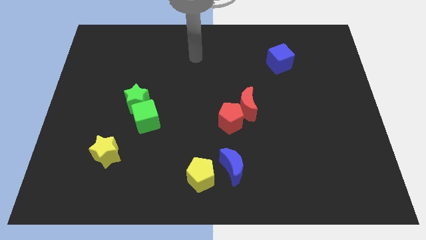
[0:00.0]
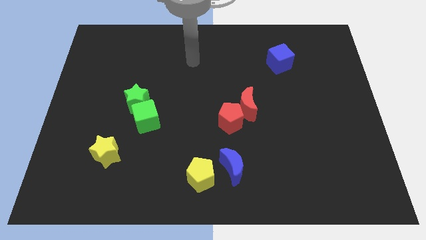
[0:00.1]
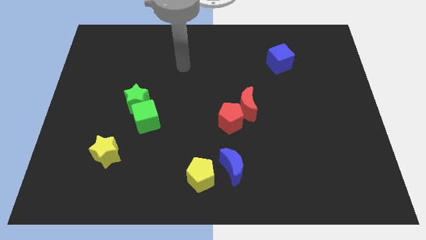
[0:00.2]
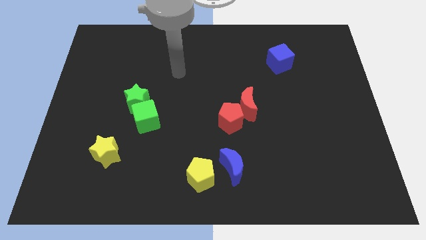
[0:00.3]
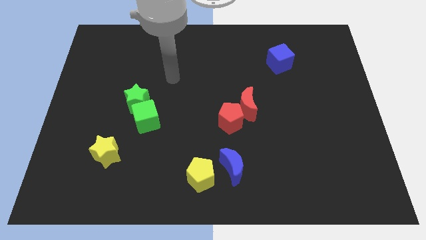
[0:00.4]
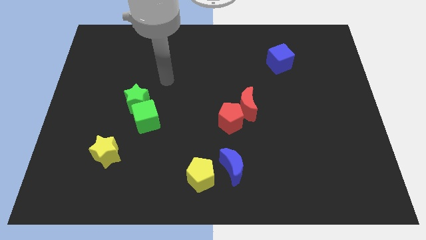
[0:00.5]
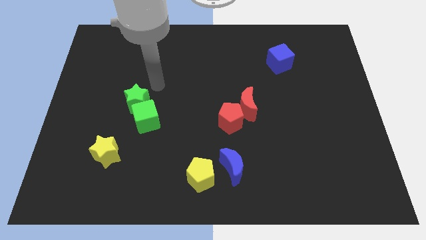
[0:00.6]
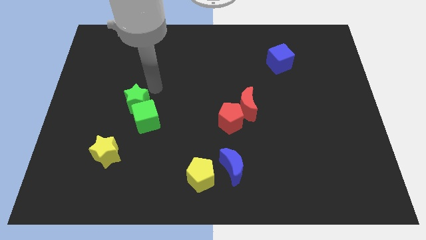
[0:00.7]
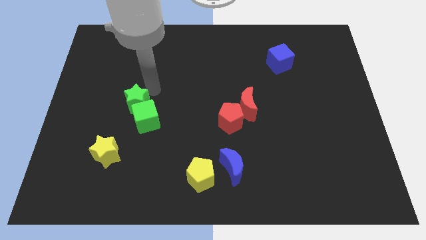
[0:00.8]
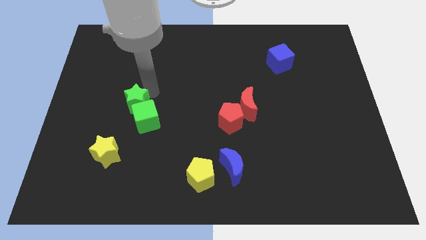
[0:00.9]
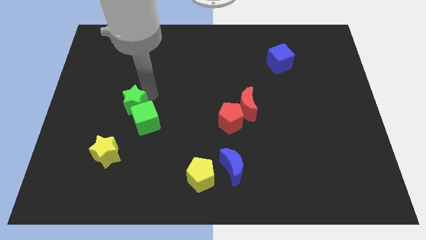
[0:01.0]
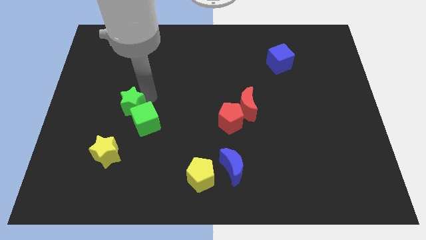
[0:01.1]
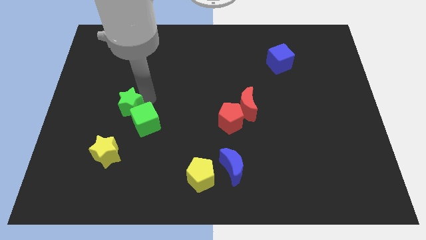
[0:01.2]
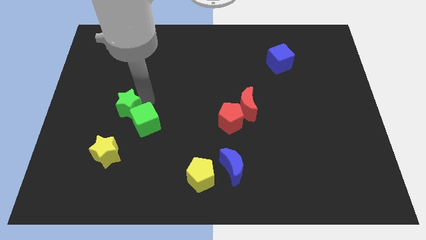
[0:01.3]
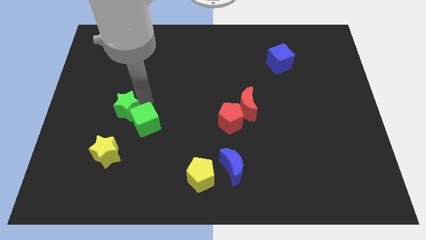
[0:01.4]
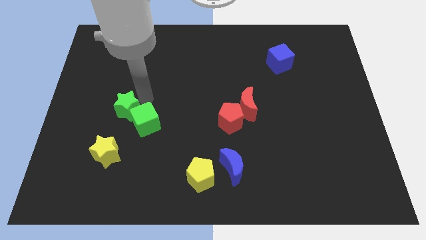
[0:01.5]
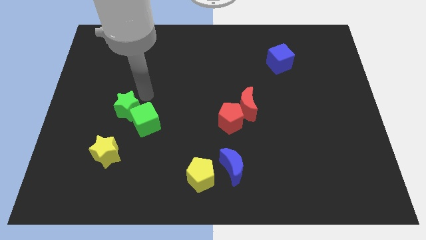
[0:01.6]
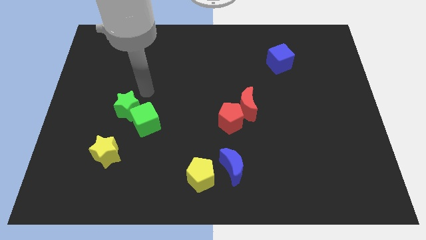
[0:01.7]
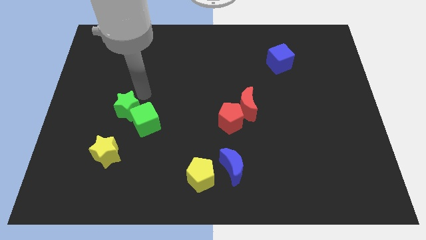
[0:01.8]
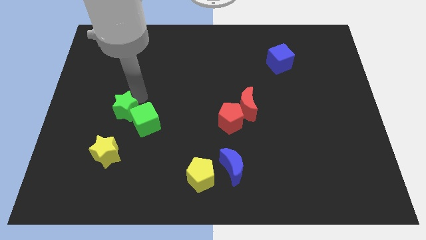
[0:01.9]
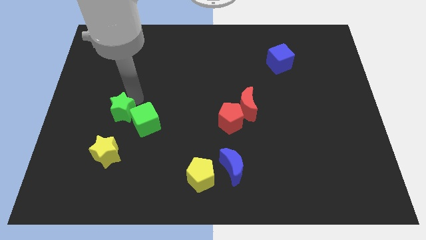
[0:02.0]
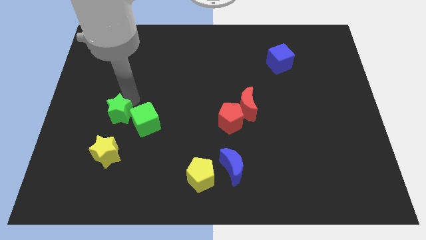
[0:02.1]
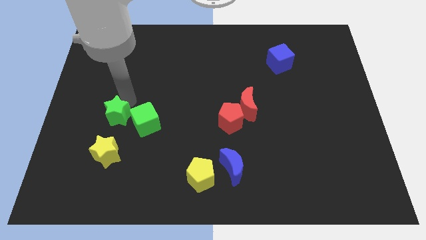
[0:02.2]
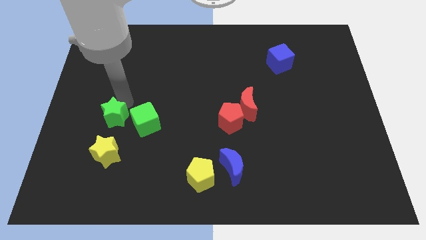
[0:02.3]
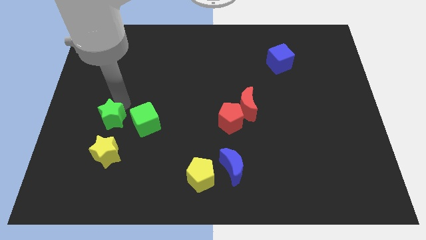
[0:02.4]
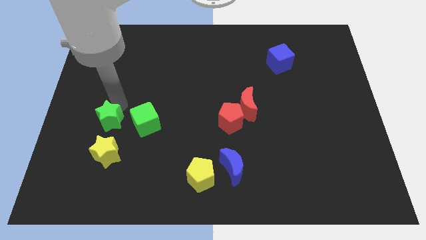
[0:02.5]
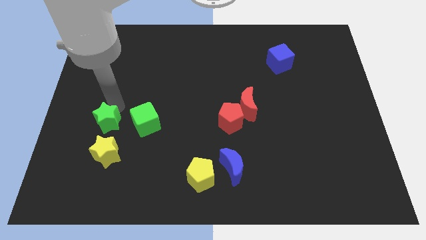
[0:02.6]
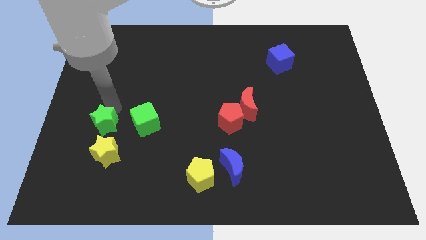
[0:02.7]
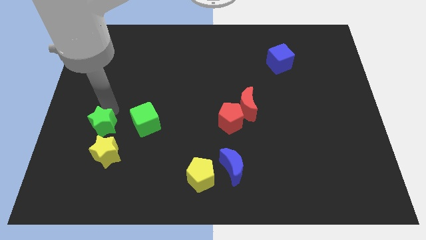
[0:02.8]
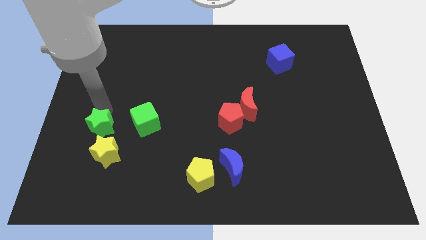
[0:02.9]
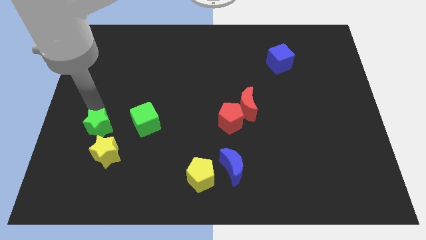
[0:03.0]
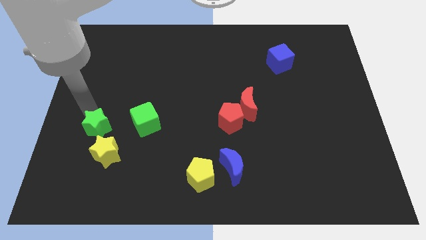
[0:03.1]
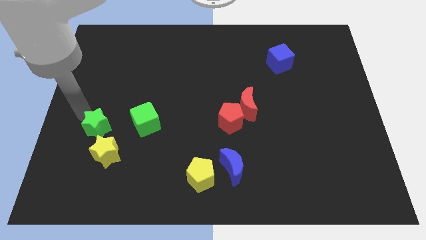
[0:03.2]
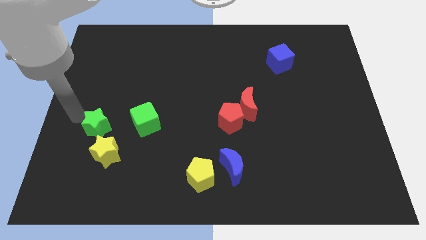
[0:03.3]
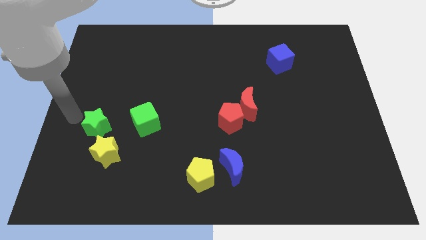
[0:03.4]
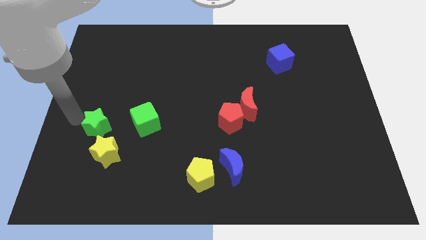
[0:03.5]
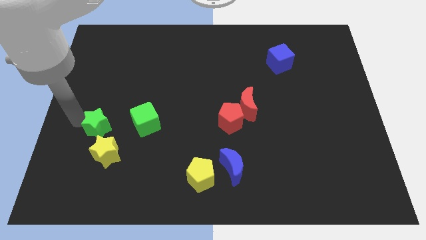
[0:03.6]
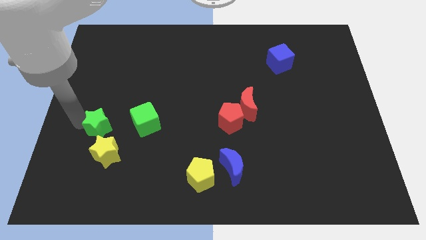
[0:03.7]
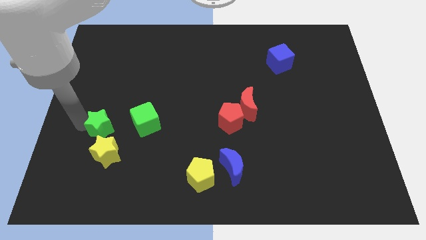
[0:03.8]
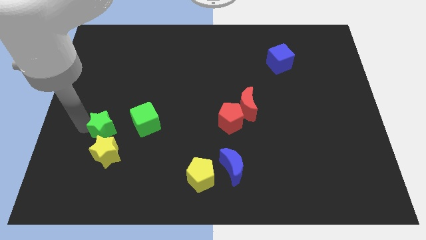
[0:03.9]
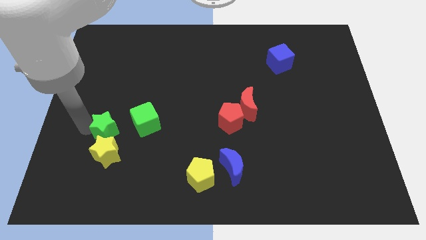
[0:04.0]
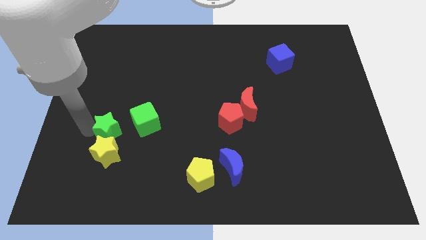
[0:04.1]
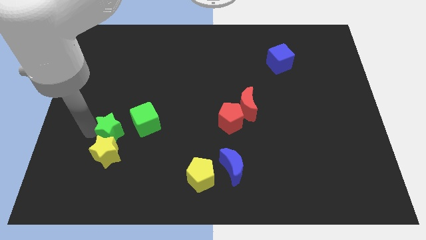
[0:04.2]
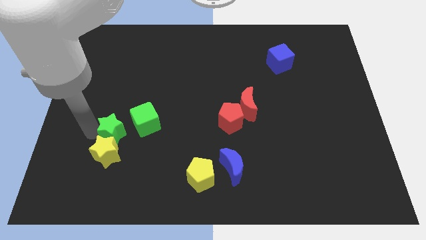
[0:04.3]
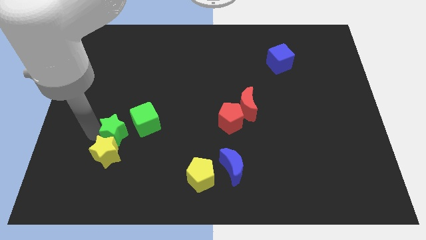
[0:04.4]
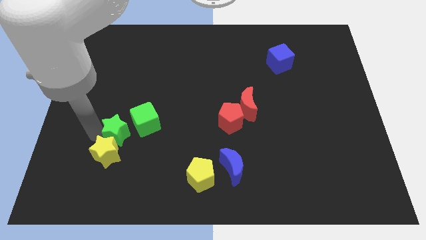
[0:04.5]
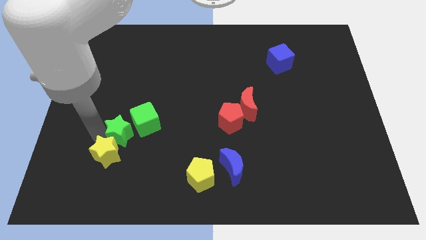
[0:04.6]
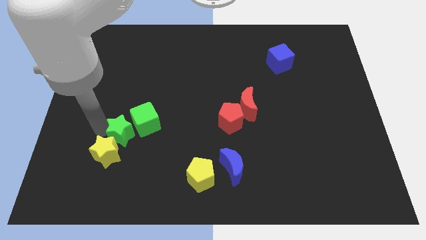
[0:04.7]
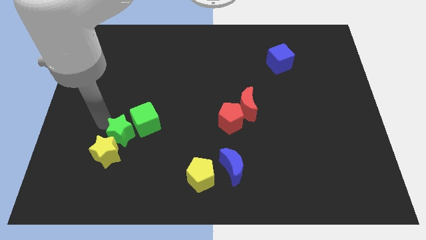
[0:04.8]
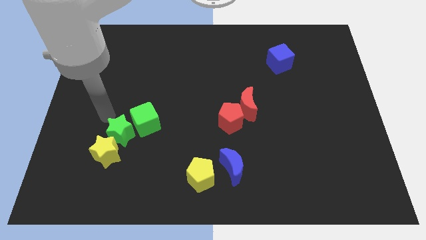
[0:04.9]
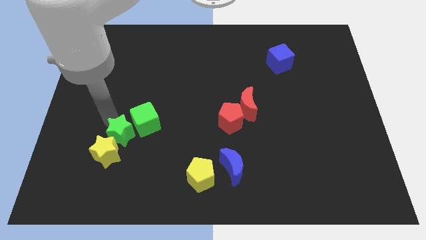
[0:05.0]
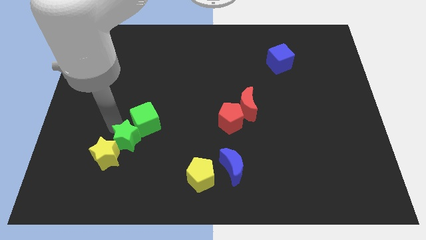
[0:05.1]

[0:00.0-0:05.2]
put the green star below the green cube

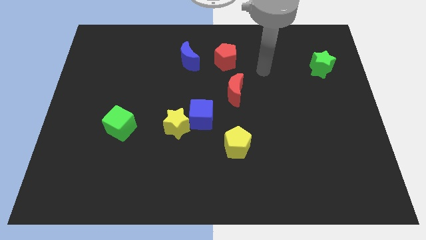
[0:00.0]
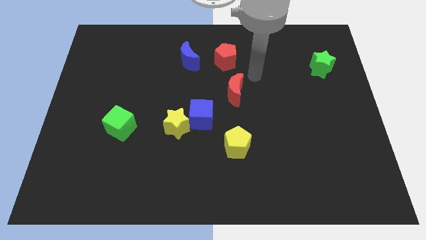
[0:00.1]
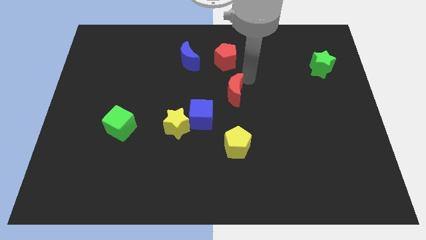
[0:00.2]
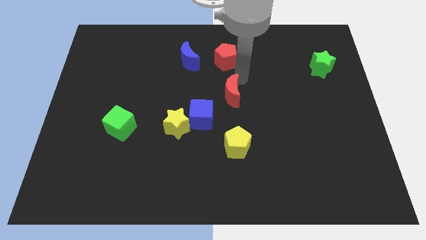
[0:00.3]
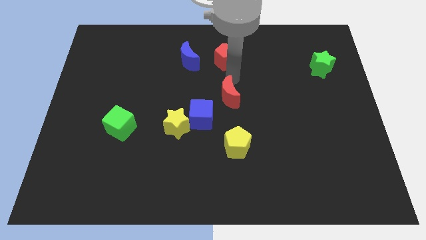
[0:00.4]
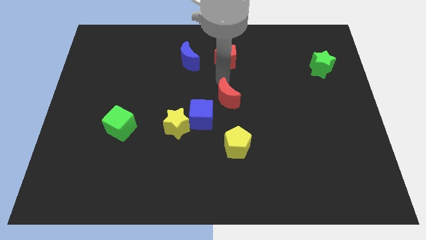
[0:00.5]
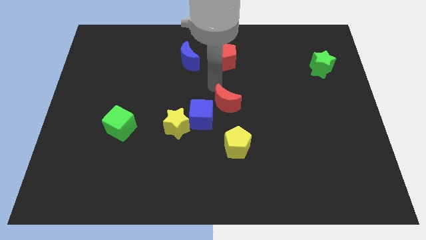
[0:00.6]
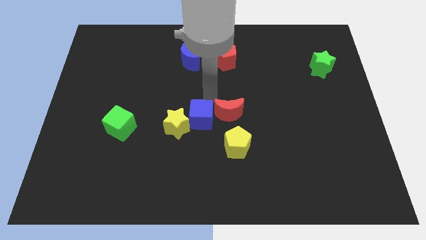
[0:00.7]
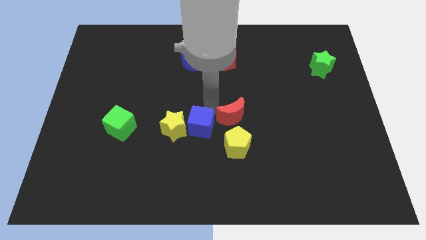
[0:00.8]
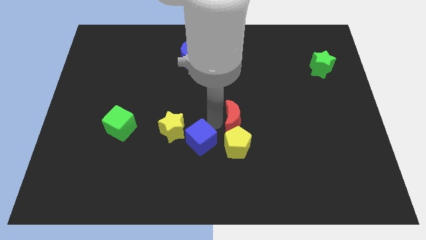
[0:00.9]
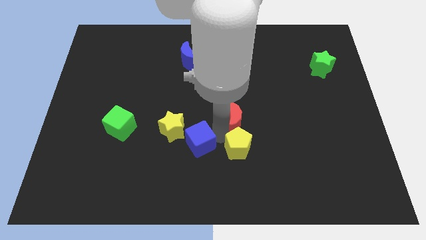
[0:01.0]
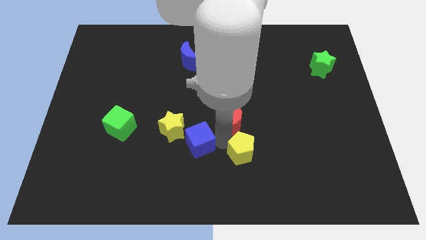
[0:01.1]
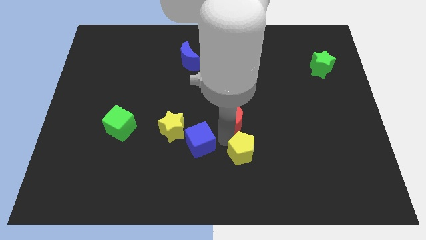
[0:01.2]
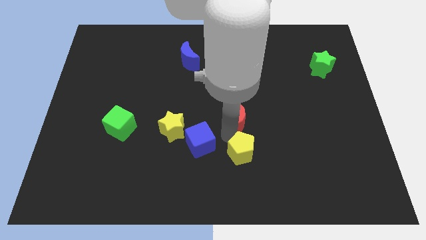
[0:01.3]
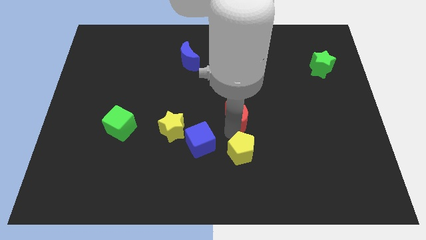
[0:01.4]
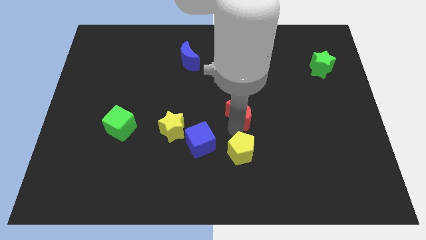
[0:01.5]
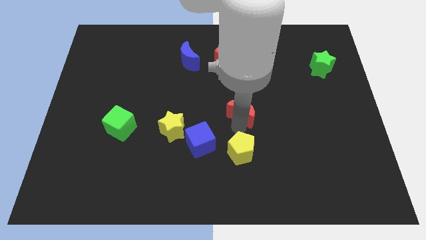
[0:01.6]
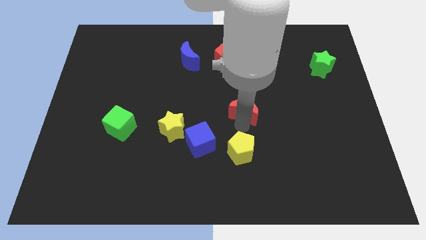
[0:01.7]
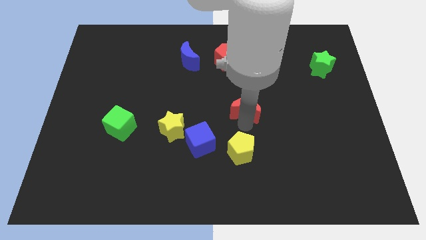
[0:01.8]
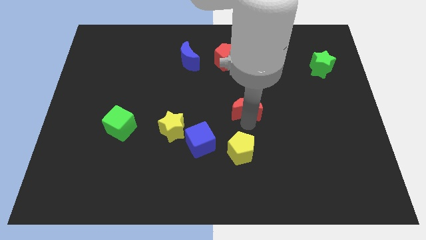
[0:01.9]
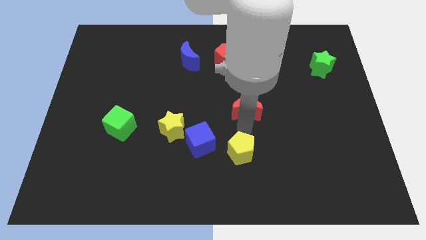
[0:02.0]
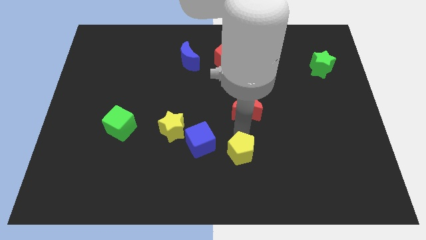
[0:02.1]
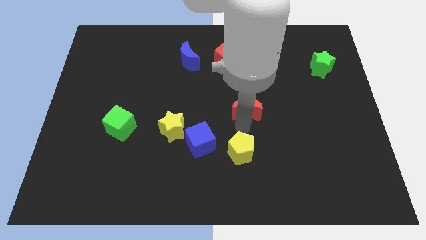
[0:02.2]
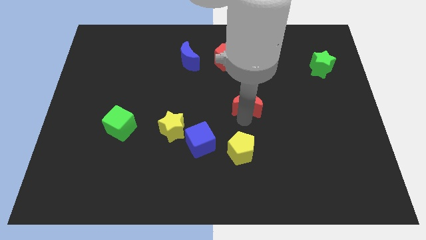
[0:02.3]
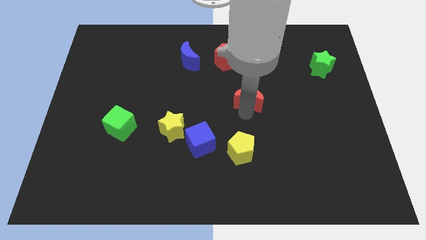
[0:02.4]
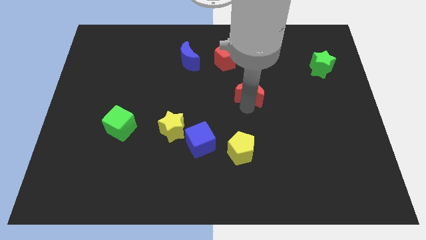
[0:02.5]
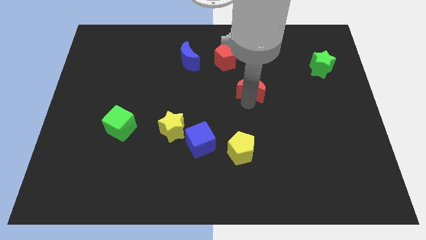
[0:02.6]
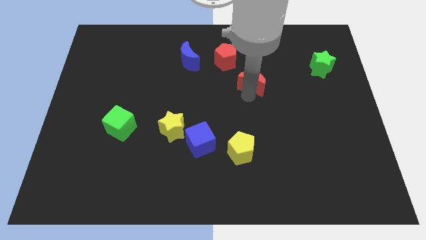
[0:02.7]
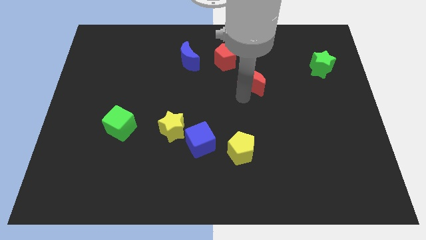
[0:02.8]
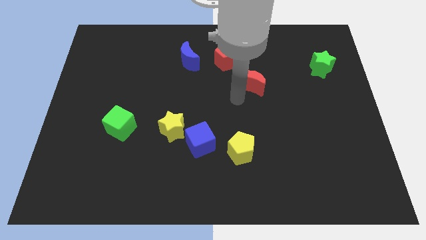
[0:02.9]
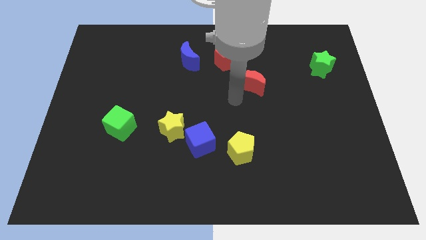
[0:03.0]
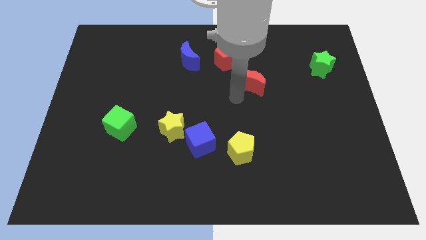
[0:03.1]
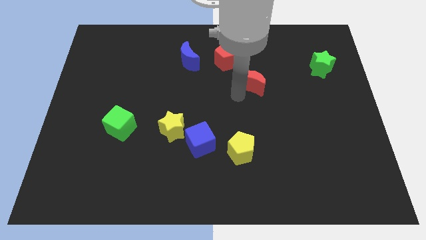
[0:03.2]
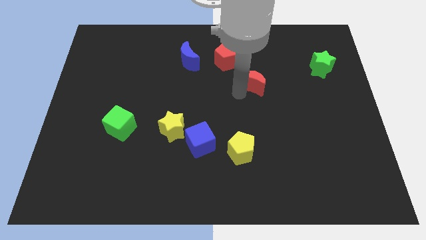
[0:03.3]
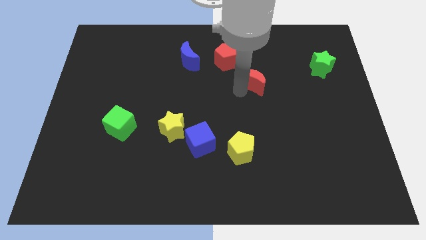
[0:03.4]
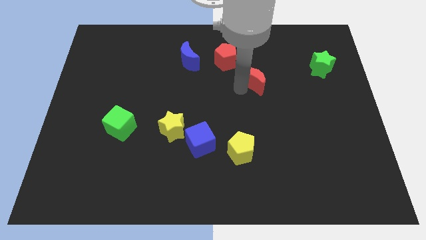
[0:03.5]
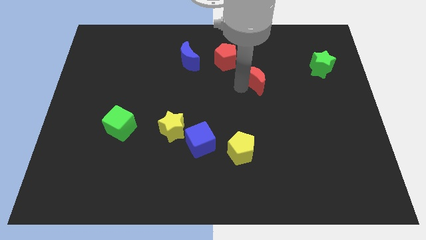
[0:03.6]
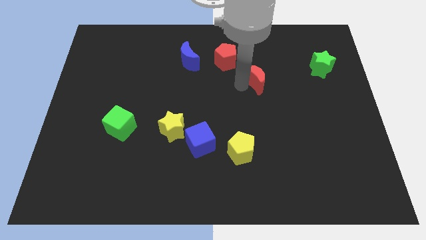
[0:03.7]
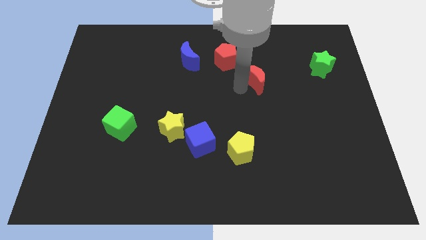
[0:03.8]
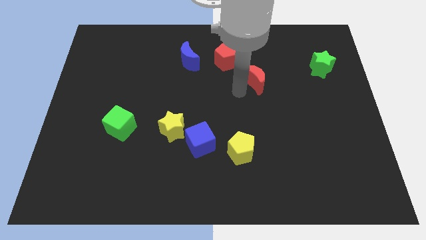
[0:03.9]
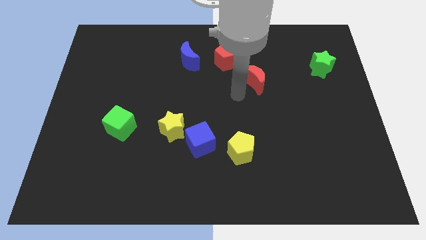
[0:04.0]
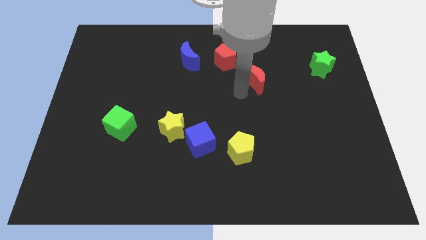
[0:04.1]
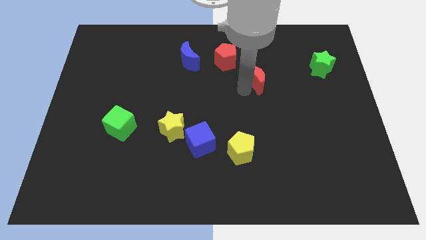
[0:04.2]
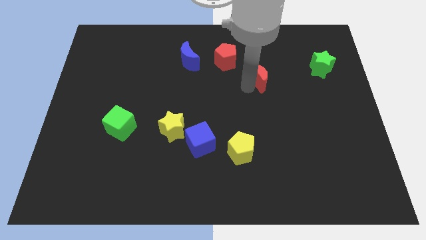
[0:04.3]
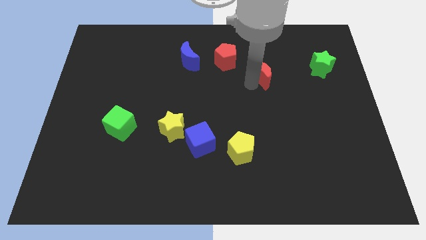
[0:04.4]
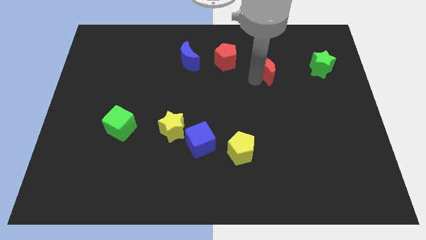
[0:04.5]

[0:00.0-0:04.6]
put the red moon just left of the green star
